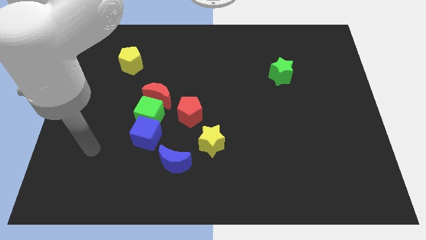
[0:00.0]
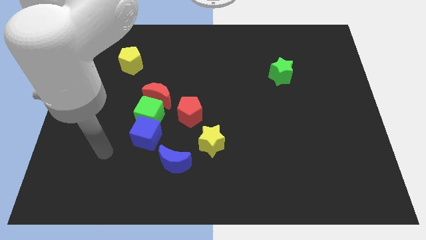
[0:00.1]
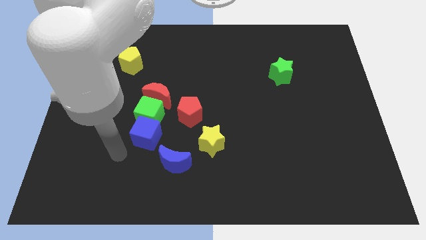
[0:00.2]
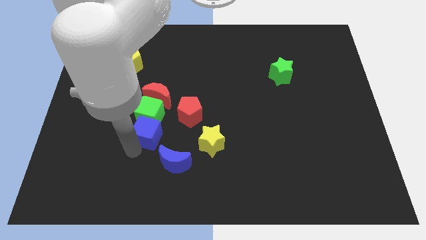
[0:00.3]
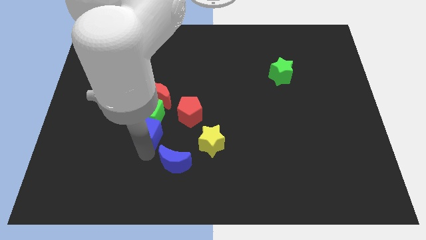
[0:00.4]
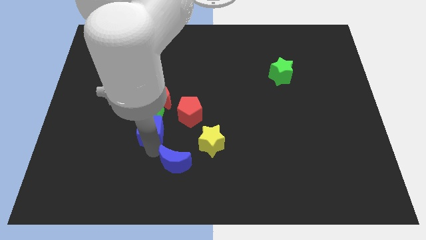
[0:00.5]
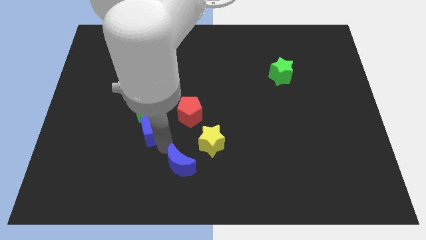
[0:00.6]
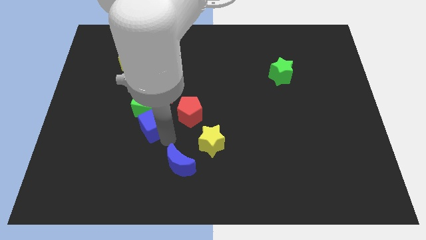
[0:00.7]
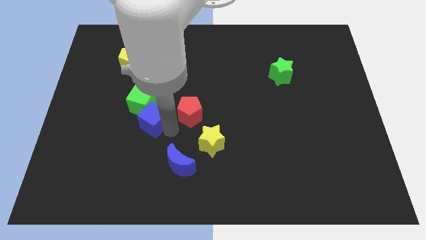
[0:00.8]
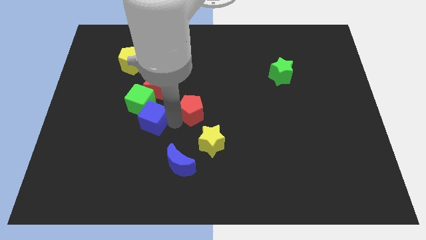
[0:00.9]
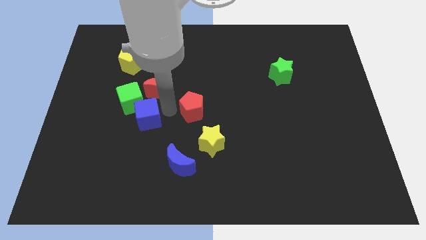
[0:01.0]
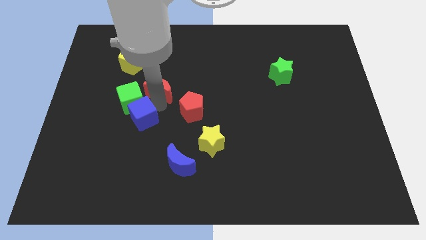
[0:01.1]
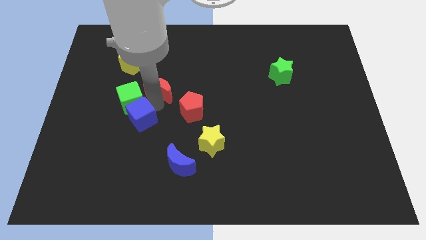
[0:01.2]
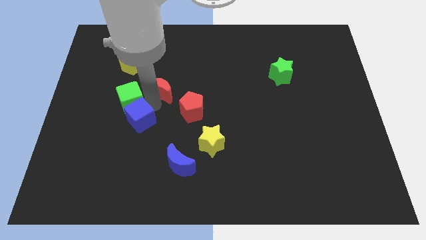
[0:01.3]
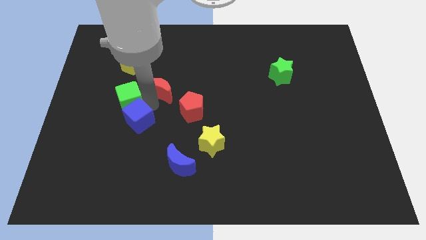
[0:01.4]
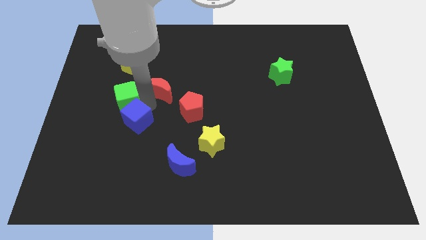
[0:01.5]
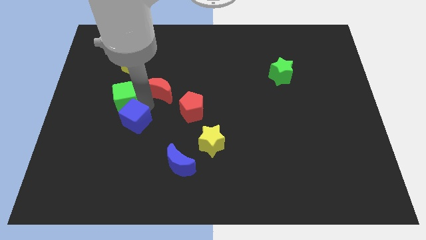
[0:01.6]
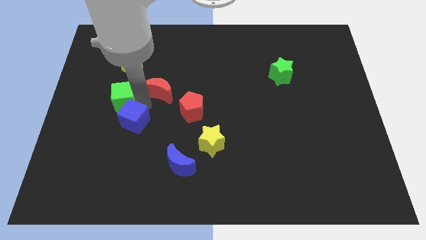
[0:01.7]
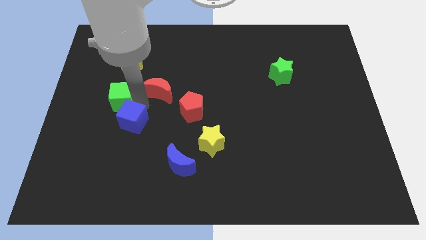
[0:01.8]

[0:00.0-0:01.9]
move the green cube away from the red moon, blue cube, and red pentagon

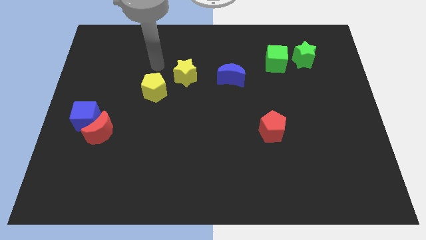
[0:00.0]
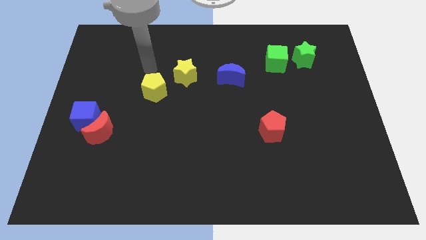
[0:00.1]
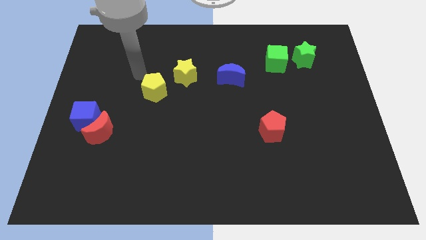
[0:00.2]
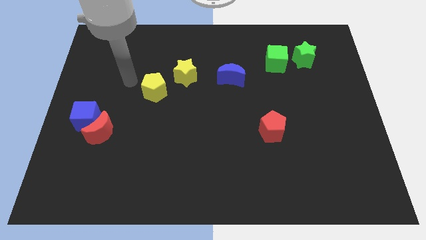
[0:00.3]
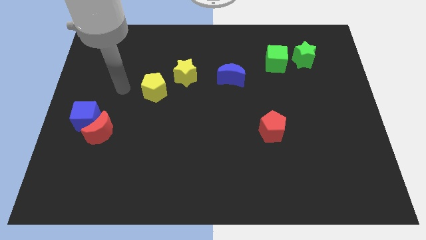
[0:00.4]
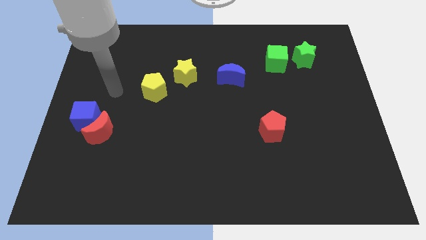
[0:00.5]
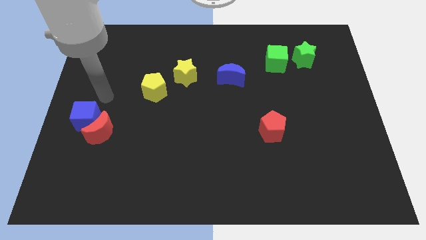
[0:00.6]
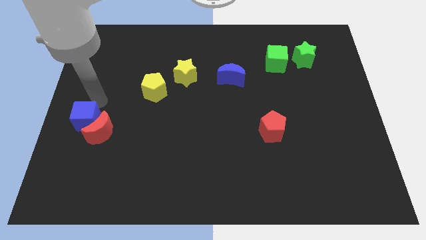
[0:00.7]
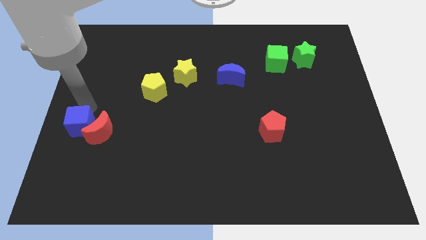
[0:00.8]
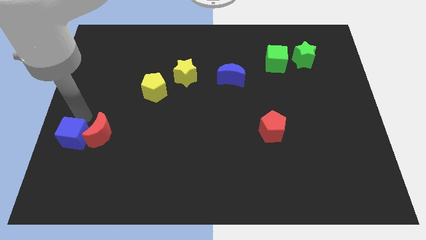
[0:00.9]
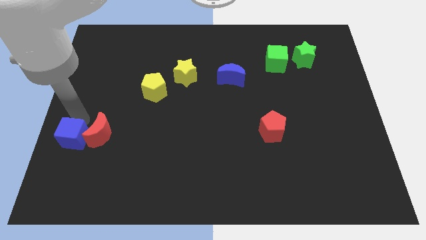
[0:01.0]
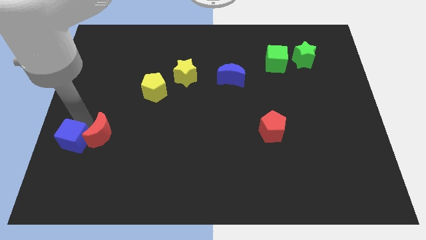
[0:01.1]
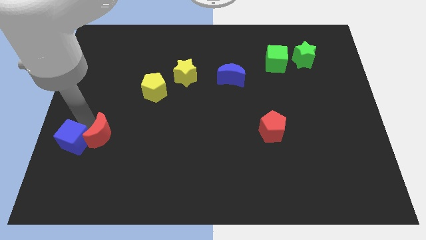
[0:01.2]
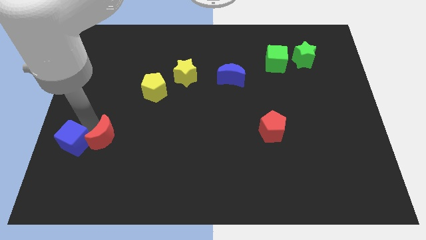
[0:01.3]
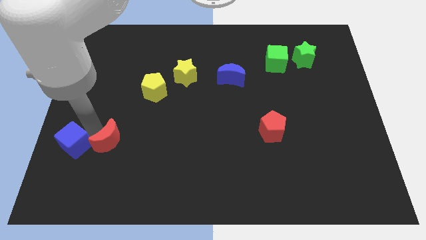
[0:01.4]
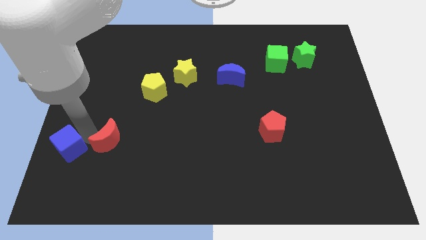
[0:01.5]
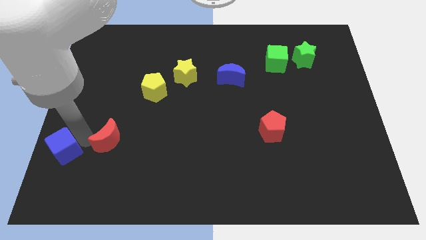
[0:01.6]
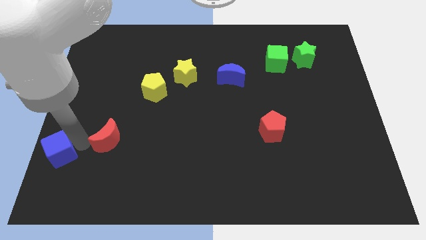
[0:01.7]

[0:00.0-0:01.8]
separate the red moon from the blue cube

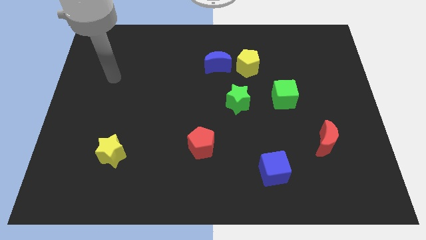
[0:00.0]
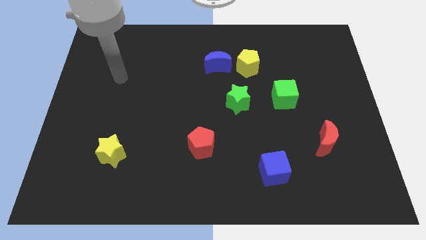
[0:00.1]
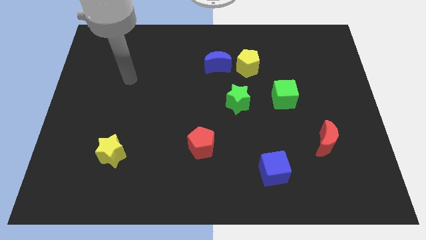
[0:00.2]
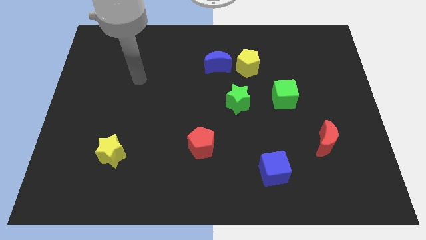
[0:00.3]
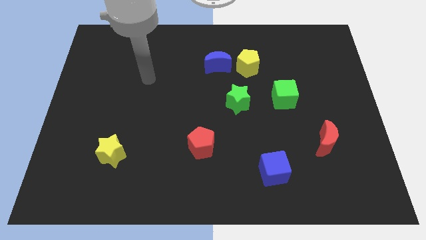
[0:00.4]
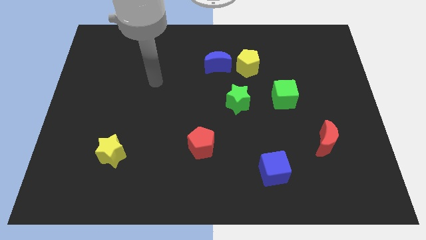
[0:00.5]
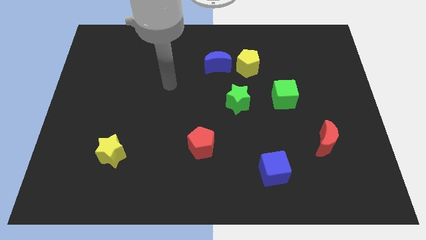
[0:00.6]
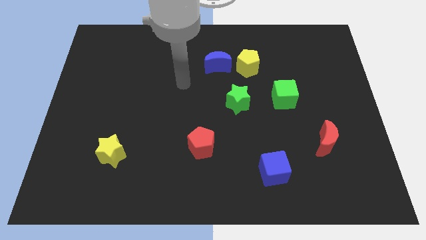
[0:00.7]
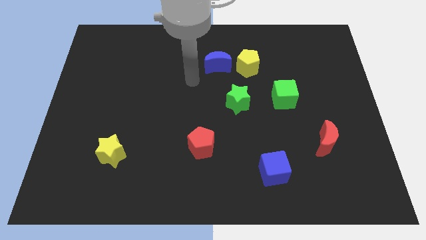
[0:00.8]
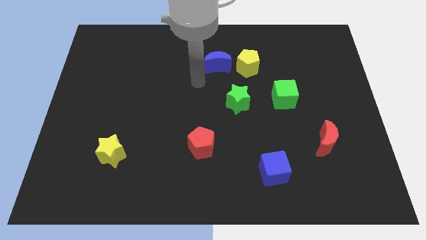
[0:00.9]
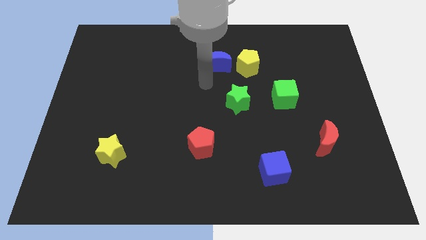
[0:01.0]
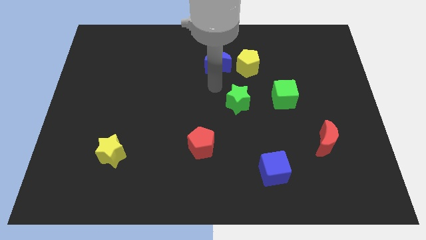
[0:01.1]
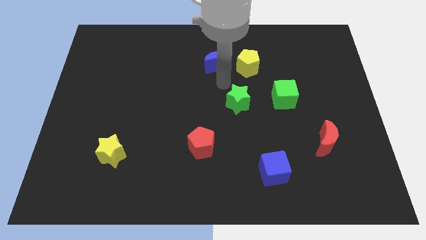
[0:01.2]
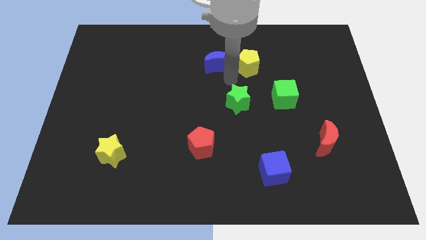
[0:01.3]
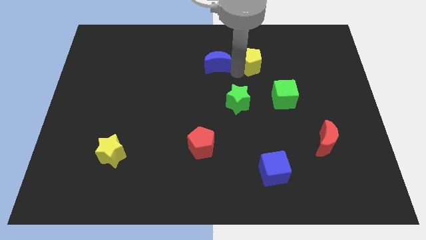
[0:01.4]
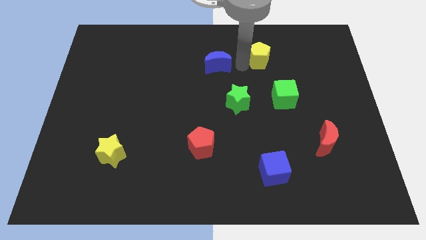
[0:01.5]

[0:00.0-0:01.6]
move the blue moon away from the yellow pentagon

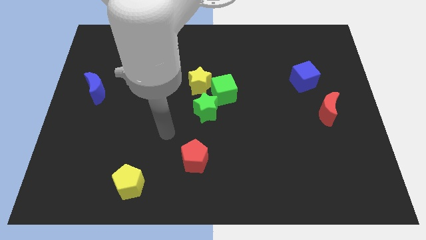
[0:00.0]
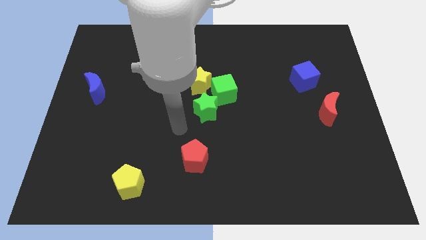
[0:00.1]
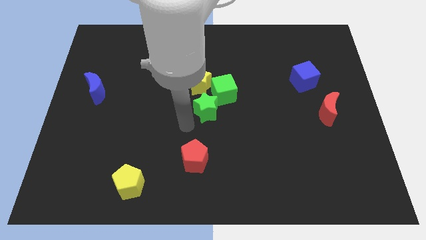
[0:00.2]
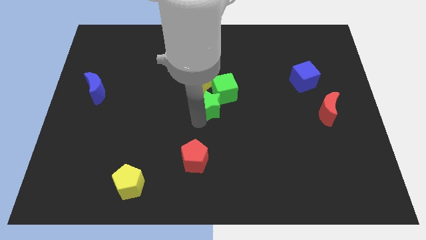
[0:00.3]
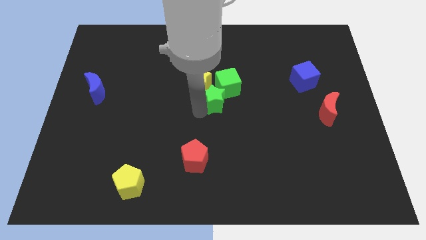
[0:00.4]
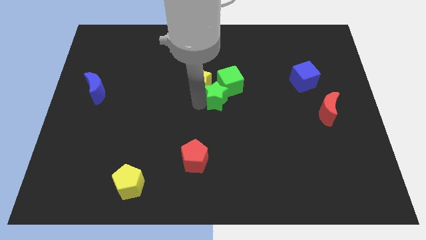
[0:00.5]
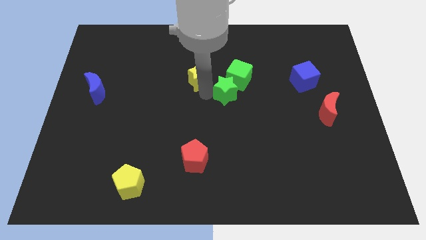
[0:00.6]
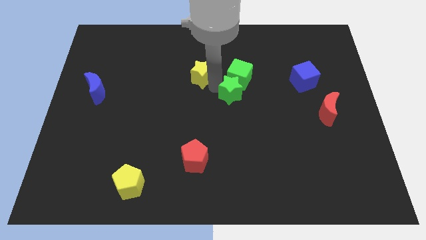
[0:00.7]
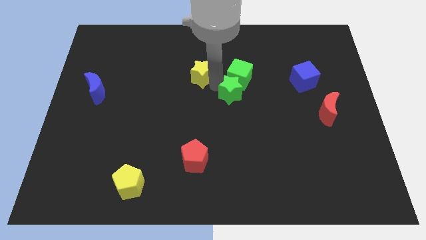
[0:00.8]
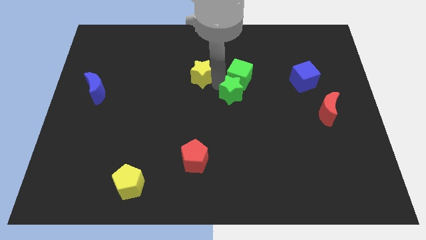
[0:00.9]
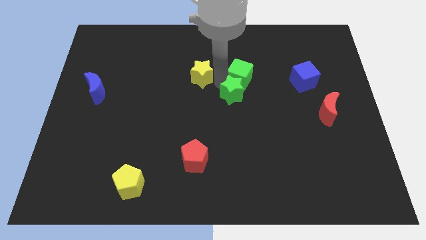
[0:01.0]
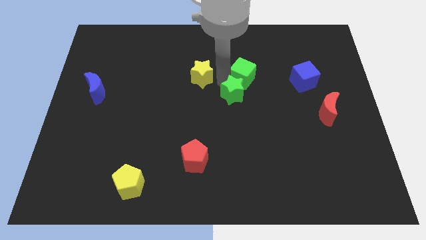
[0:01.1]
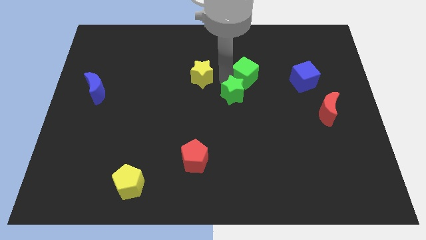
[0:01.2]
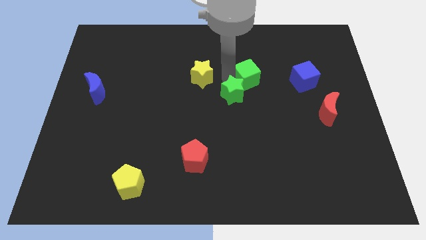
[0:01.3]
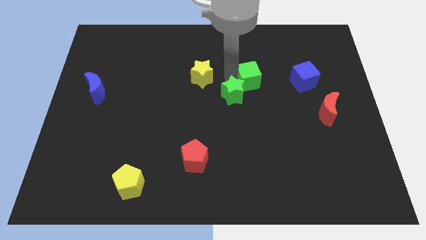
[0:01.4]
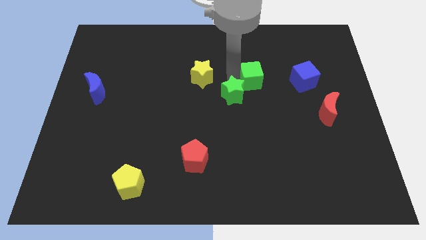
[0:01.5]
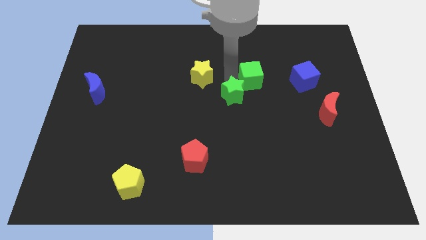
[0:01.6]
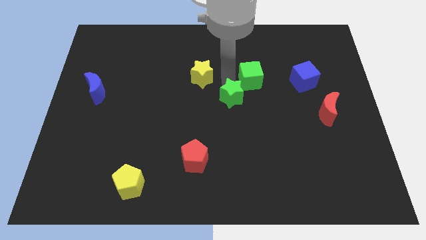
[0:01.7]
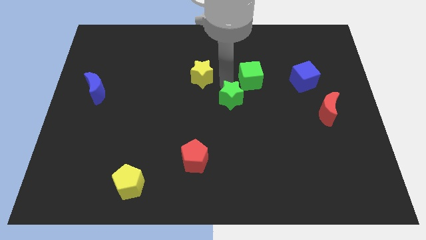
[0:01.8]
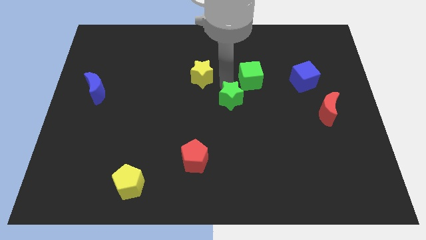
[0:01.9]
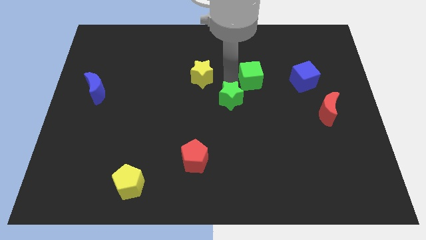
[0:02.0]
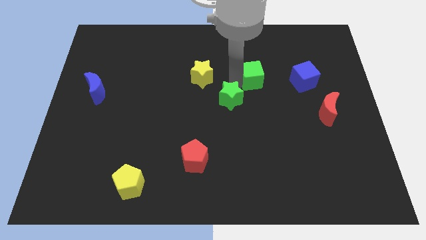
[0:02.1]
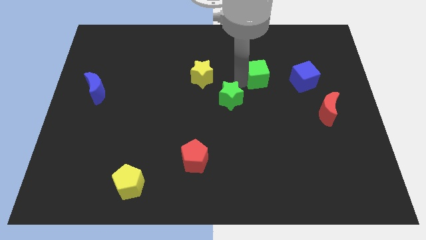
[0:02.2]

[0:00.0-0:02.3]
separate the green cube from the yellow star and green star

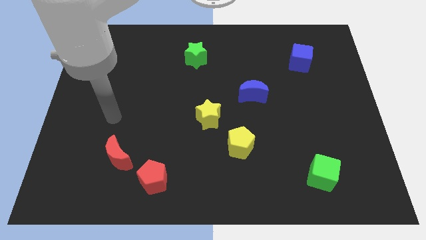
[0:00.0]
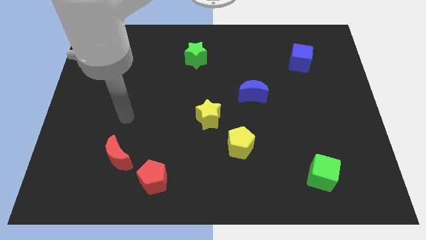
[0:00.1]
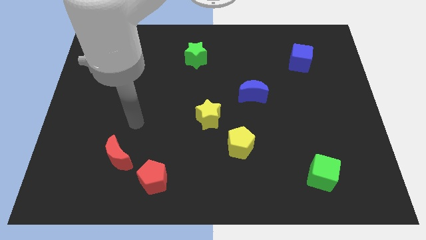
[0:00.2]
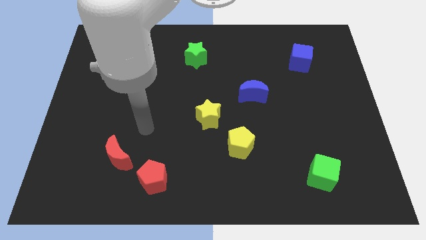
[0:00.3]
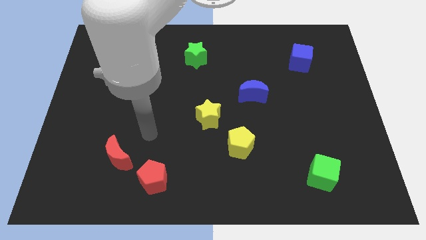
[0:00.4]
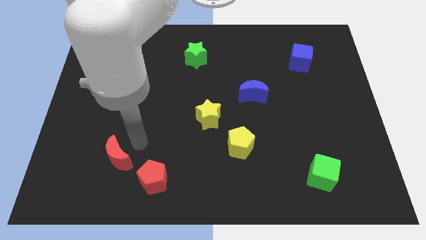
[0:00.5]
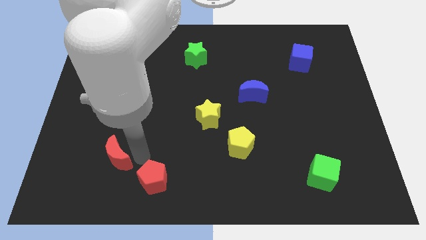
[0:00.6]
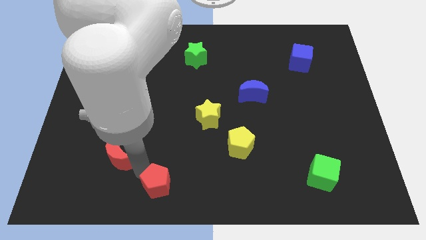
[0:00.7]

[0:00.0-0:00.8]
separate the red moon from the red pentagon

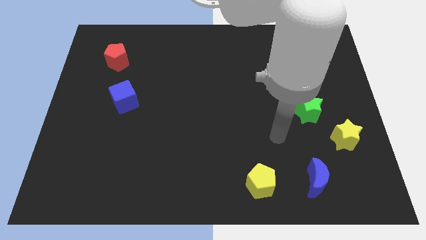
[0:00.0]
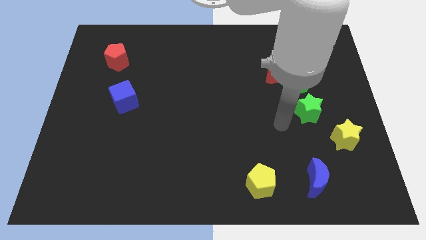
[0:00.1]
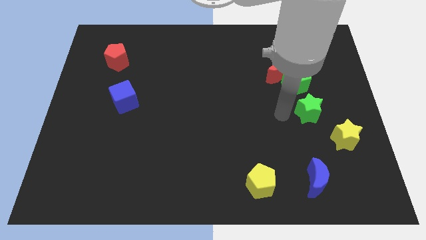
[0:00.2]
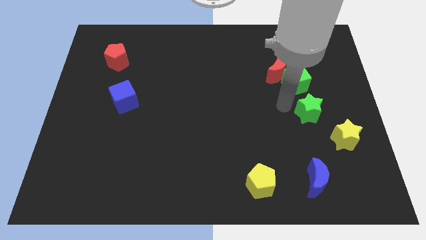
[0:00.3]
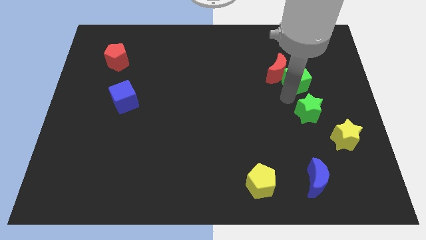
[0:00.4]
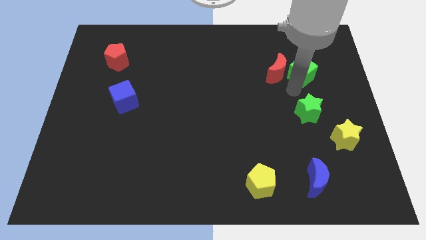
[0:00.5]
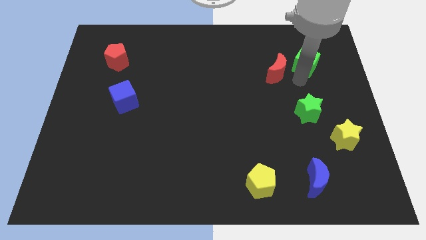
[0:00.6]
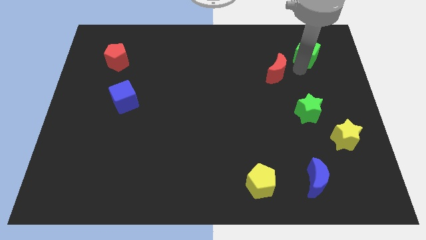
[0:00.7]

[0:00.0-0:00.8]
separate the red moon from the green cube
